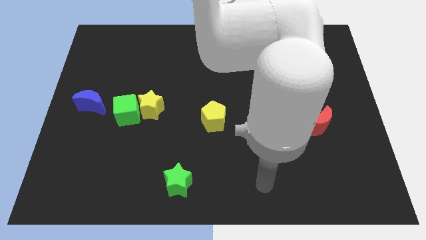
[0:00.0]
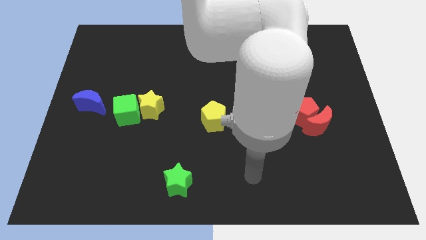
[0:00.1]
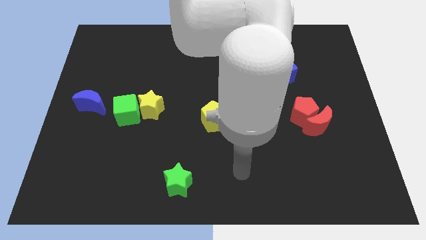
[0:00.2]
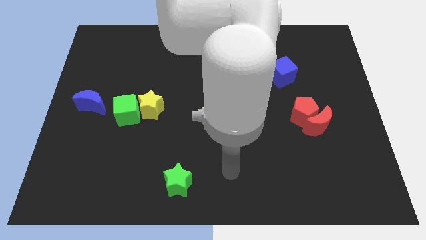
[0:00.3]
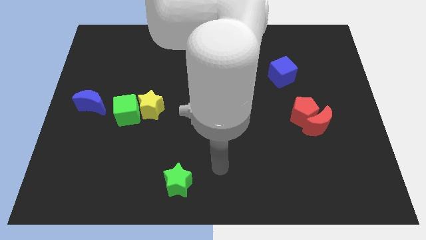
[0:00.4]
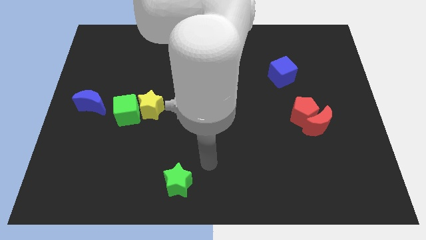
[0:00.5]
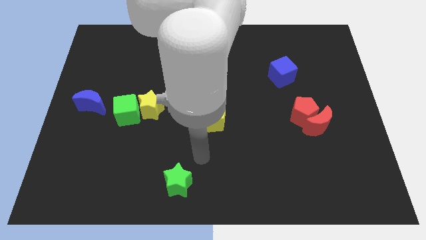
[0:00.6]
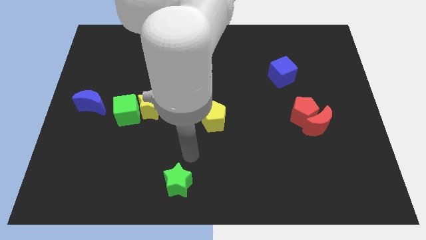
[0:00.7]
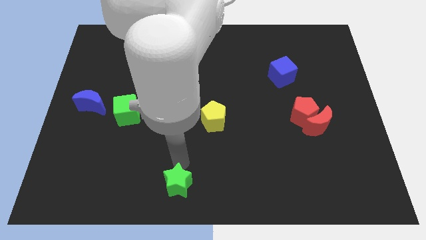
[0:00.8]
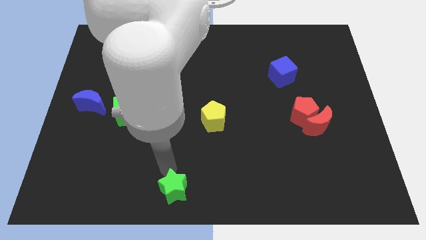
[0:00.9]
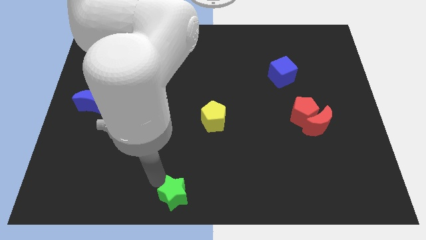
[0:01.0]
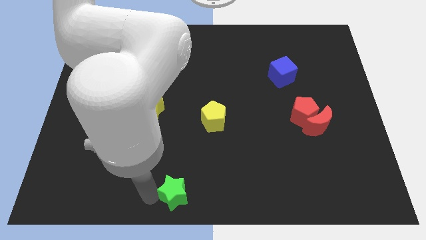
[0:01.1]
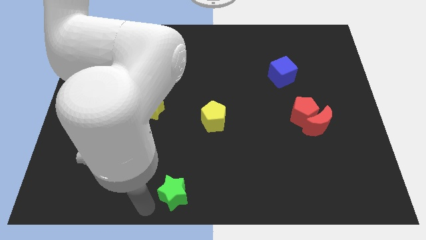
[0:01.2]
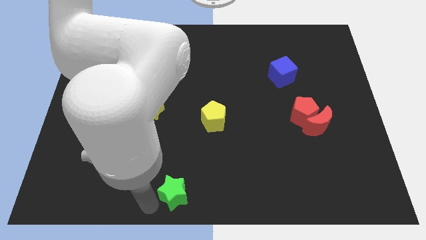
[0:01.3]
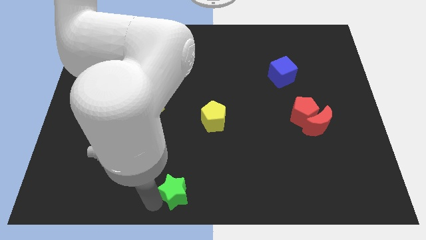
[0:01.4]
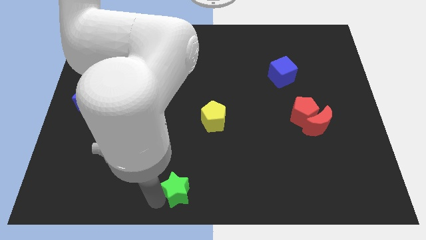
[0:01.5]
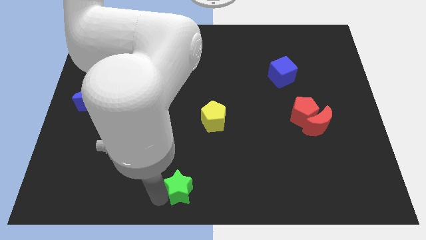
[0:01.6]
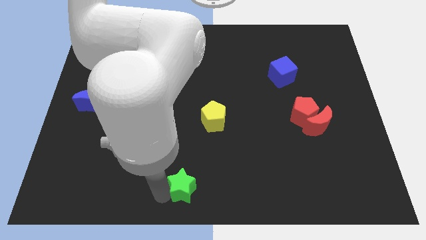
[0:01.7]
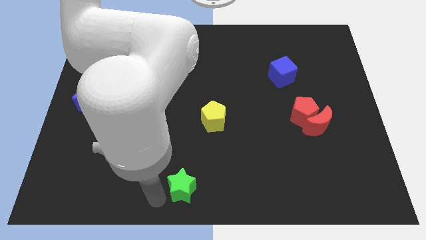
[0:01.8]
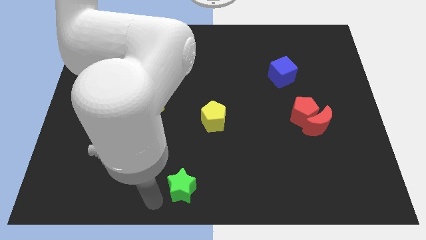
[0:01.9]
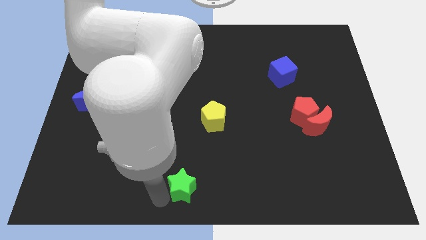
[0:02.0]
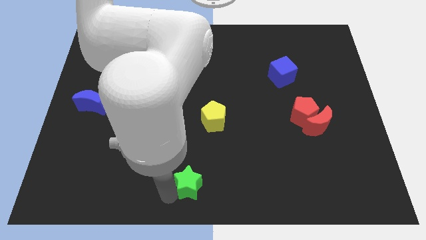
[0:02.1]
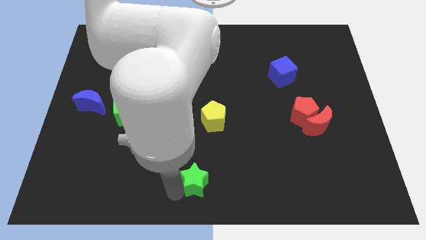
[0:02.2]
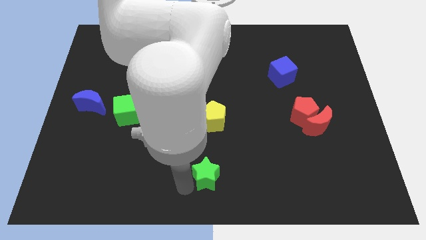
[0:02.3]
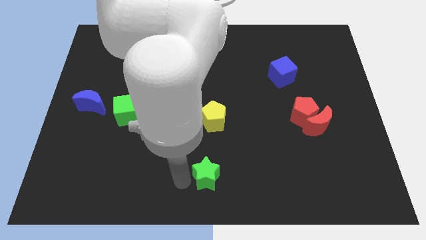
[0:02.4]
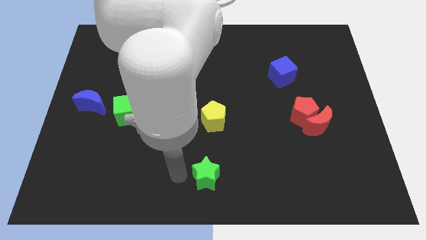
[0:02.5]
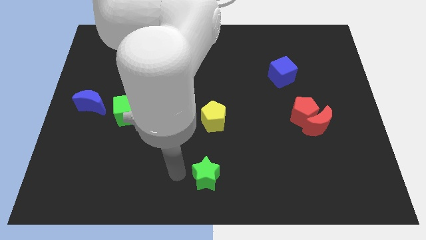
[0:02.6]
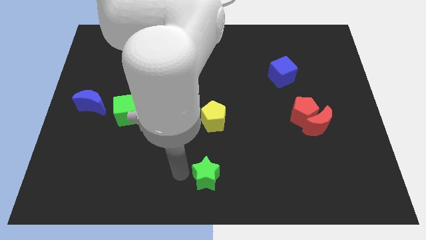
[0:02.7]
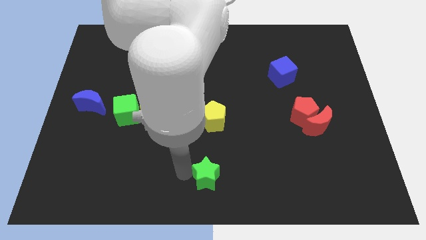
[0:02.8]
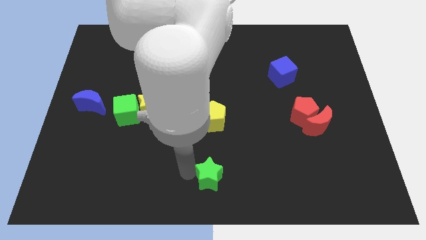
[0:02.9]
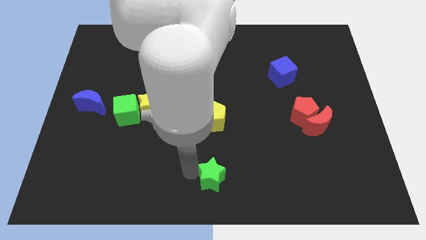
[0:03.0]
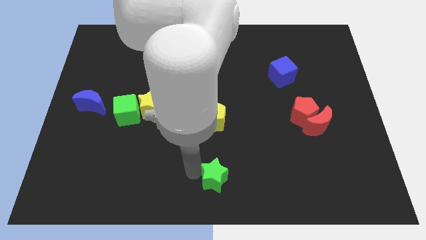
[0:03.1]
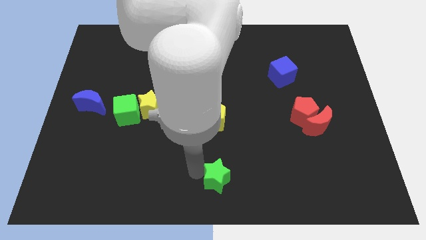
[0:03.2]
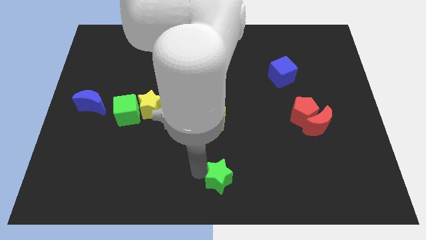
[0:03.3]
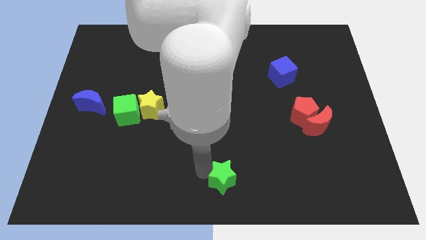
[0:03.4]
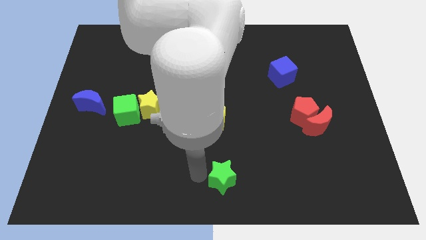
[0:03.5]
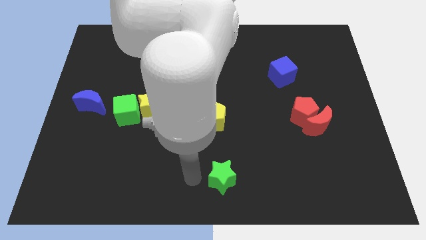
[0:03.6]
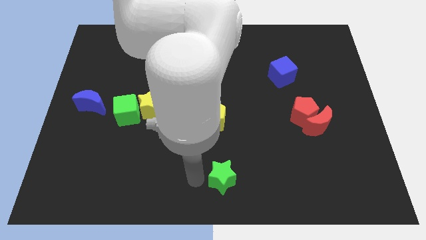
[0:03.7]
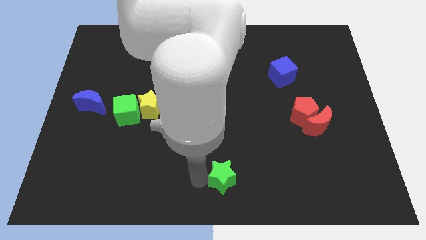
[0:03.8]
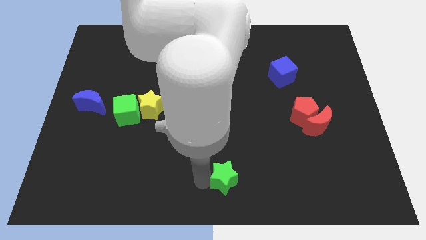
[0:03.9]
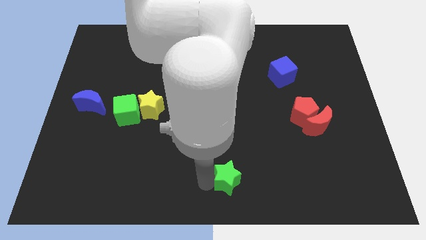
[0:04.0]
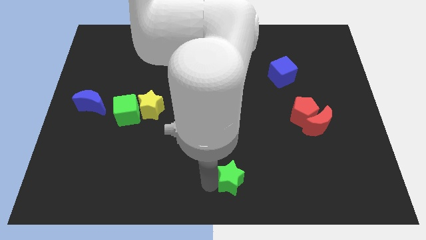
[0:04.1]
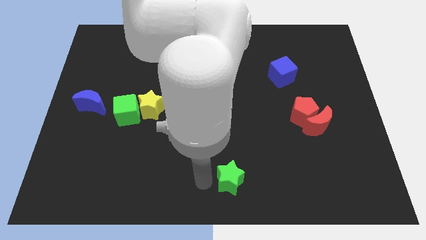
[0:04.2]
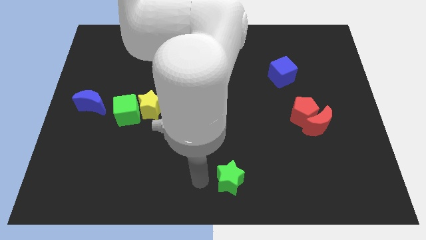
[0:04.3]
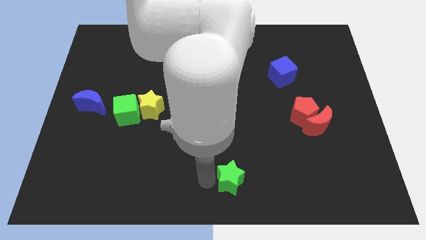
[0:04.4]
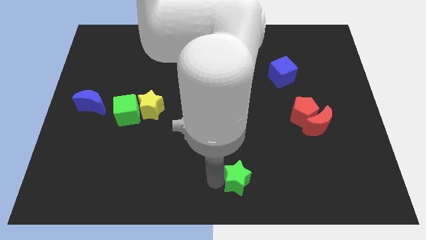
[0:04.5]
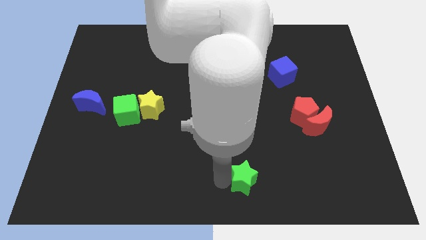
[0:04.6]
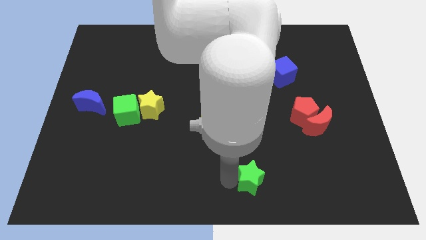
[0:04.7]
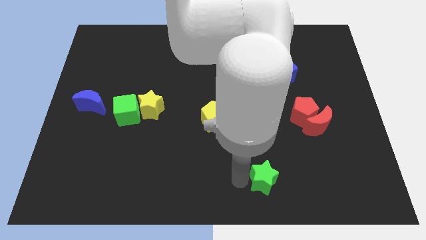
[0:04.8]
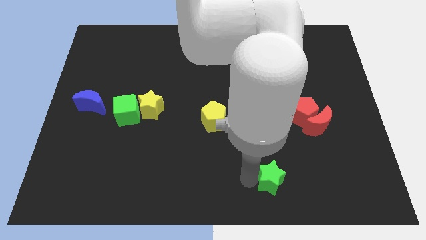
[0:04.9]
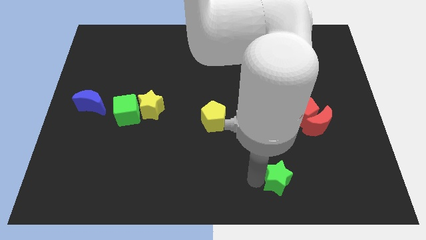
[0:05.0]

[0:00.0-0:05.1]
move the green star right

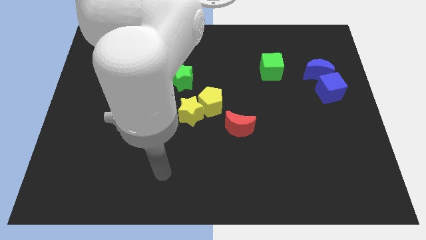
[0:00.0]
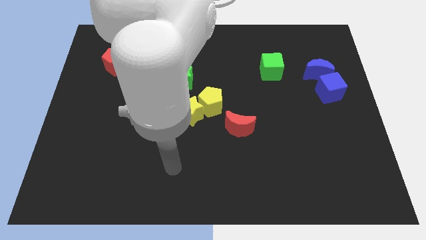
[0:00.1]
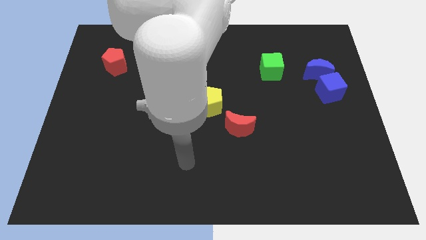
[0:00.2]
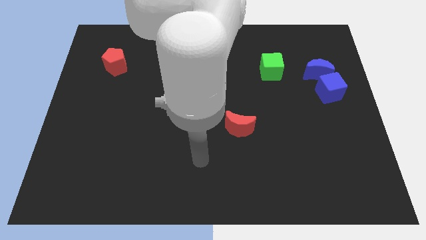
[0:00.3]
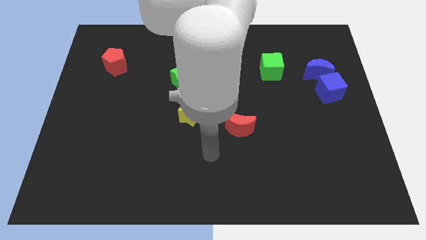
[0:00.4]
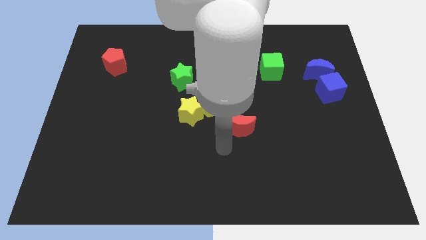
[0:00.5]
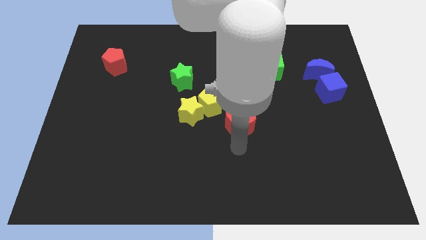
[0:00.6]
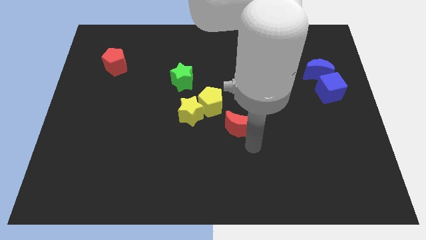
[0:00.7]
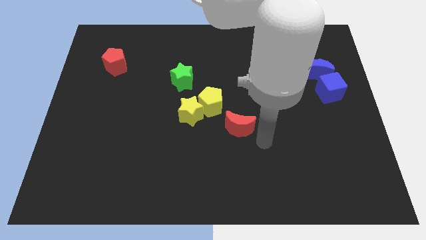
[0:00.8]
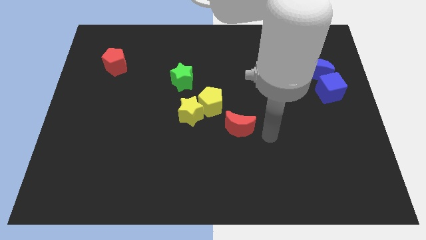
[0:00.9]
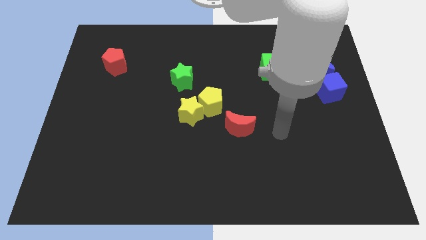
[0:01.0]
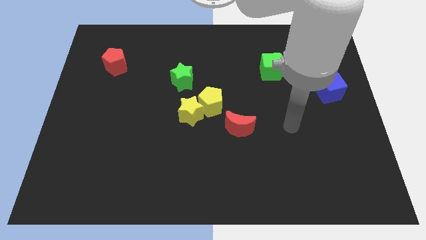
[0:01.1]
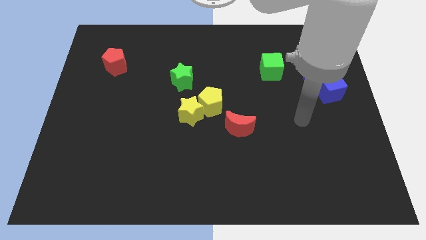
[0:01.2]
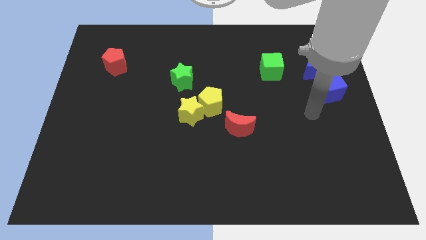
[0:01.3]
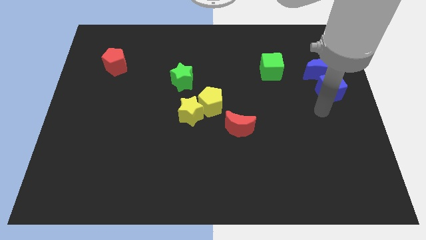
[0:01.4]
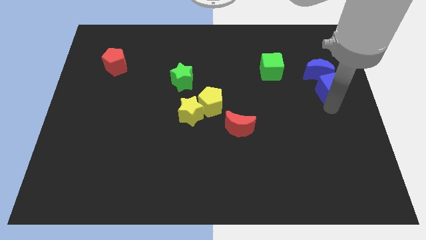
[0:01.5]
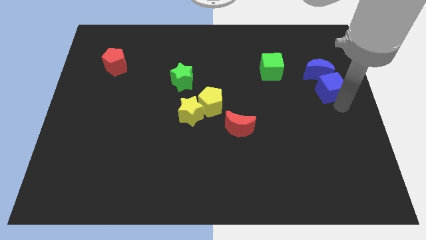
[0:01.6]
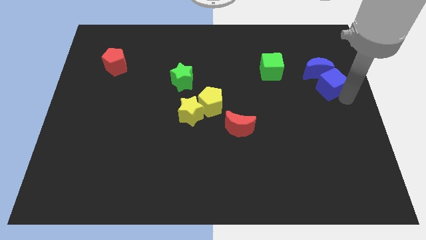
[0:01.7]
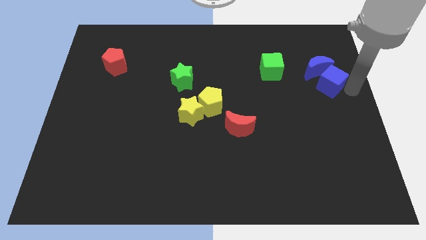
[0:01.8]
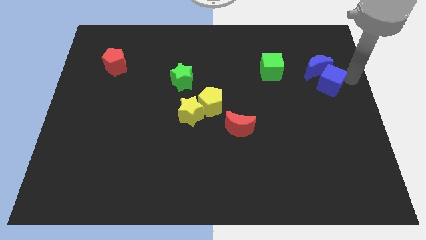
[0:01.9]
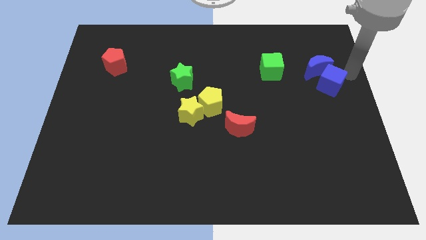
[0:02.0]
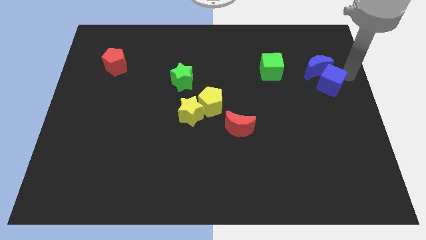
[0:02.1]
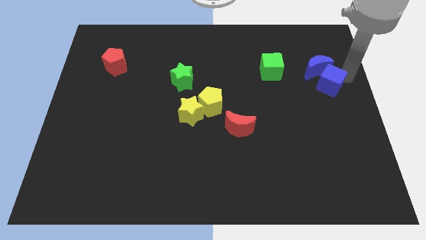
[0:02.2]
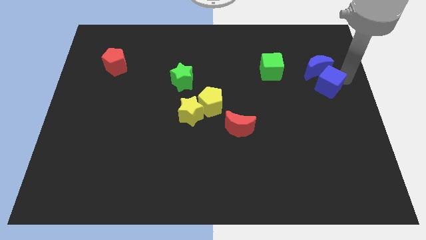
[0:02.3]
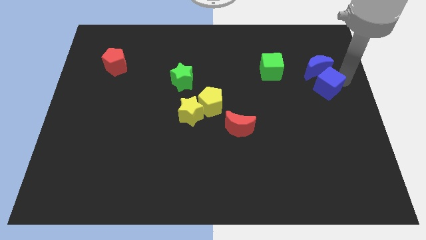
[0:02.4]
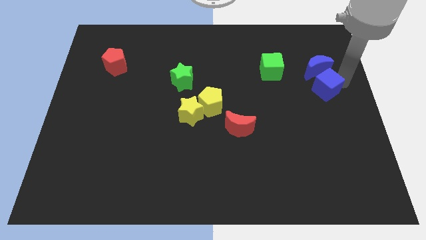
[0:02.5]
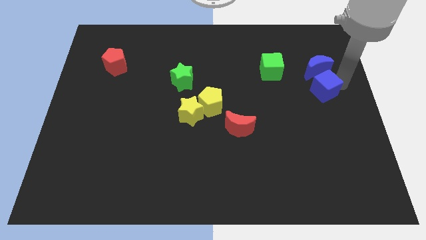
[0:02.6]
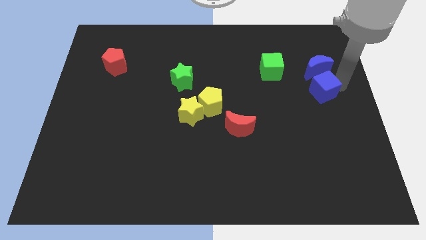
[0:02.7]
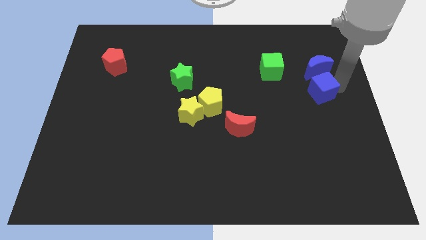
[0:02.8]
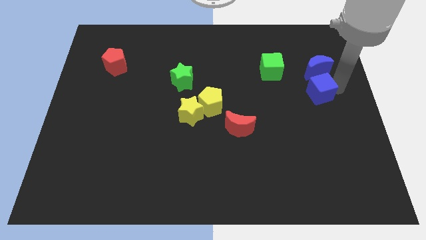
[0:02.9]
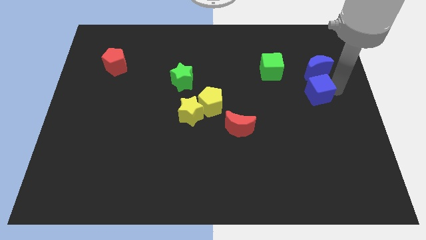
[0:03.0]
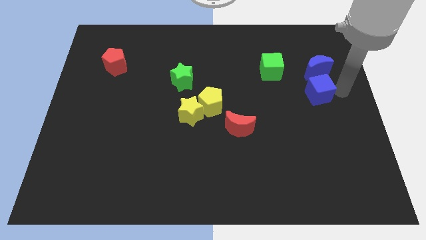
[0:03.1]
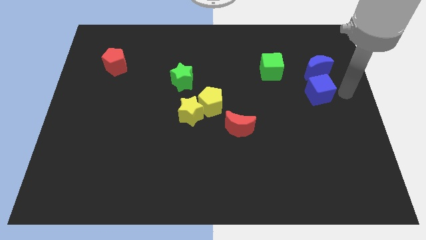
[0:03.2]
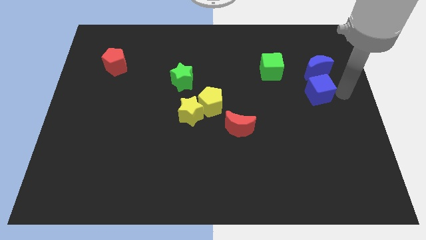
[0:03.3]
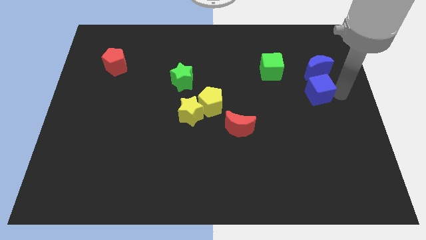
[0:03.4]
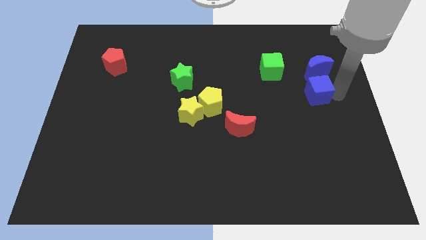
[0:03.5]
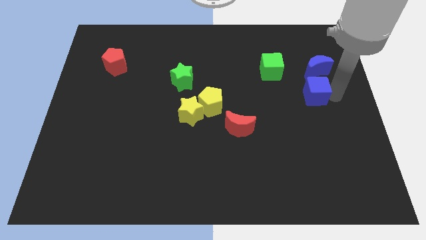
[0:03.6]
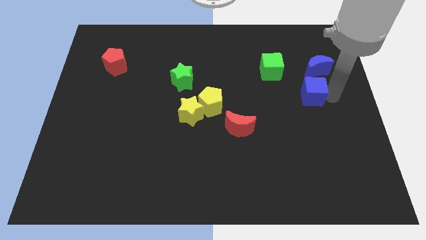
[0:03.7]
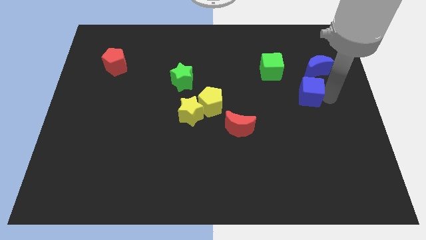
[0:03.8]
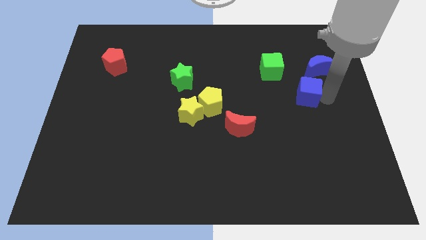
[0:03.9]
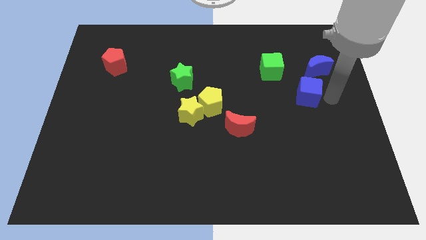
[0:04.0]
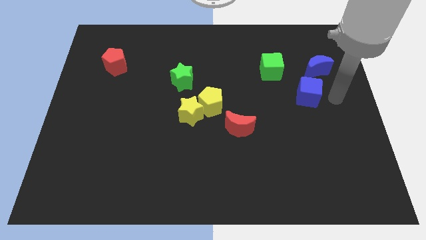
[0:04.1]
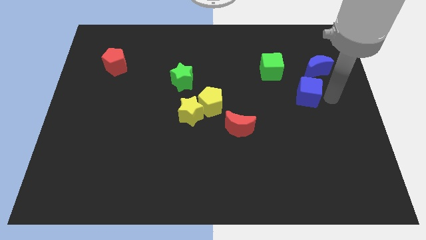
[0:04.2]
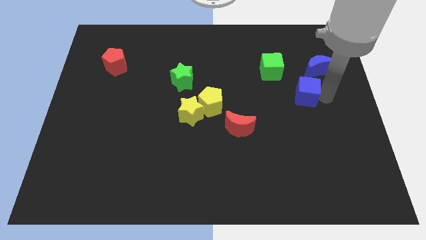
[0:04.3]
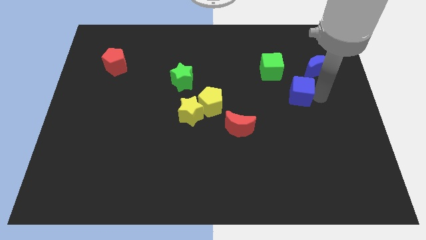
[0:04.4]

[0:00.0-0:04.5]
slide the blue cube left a little bit
